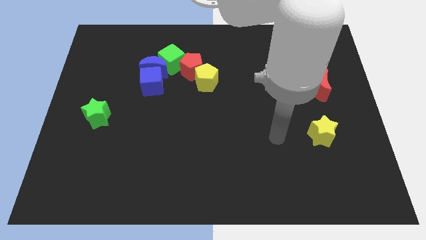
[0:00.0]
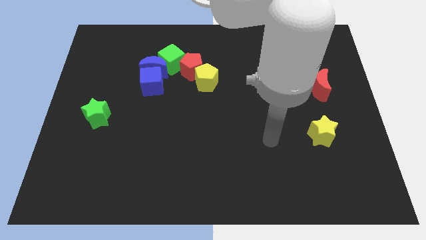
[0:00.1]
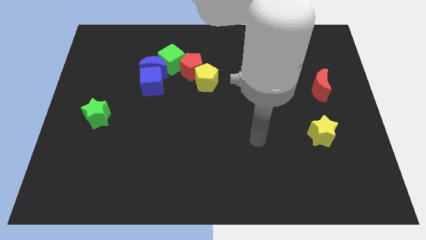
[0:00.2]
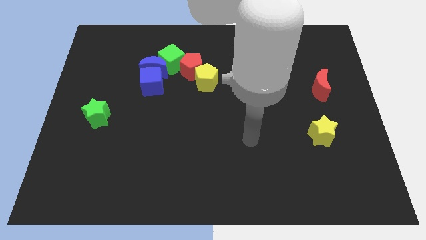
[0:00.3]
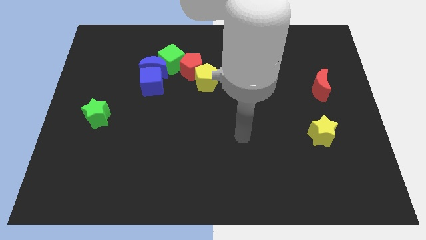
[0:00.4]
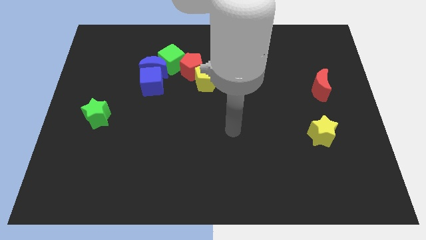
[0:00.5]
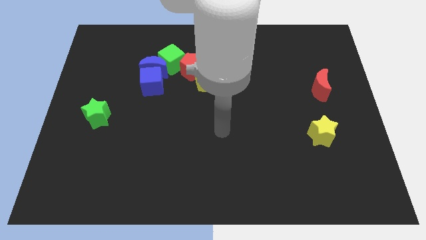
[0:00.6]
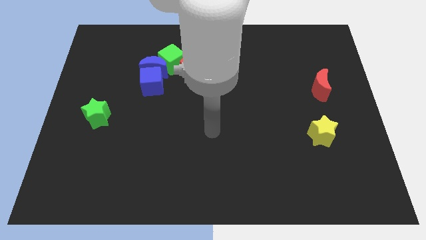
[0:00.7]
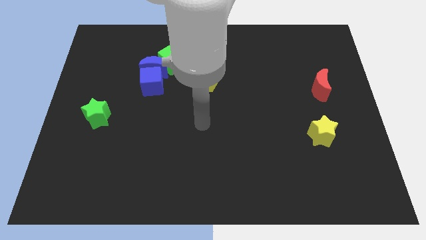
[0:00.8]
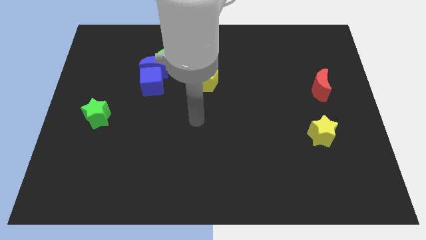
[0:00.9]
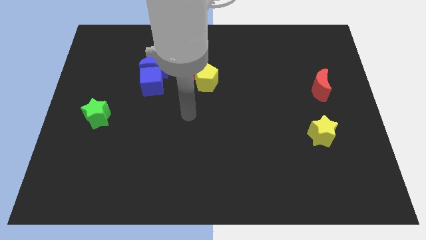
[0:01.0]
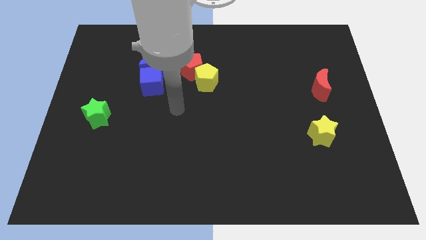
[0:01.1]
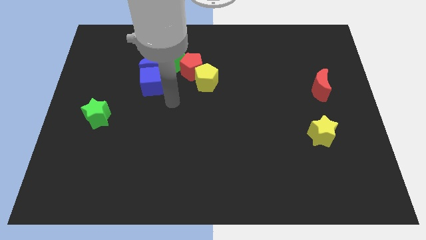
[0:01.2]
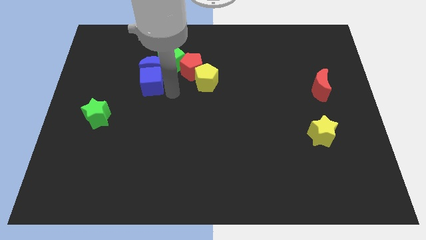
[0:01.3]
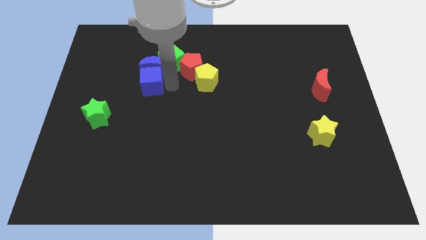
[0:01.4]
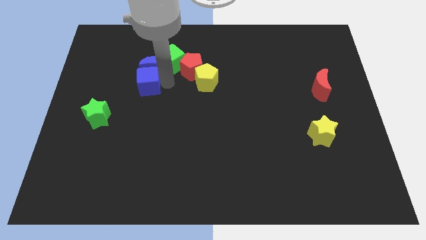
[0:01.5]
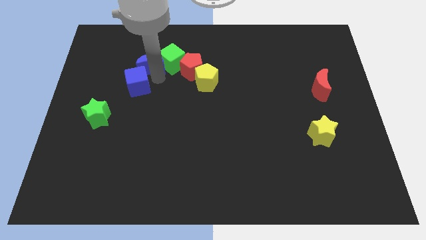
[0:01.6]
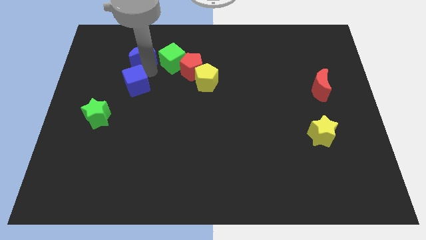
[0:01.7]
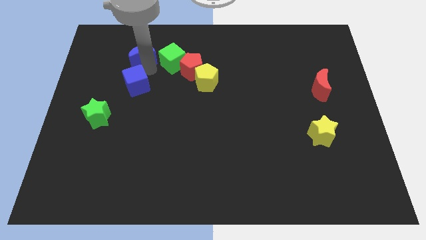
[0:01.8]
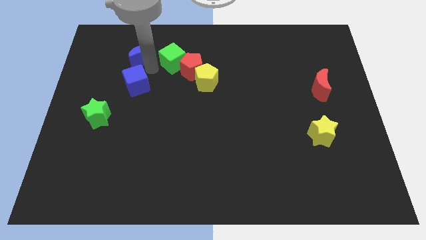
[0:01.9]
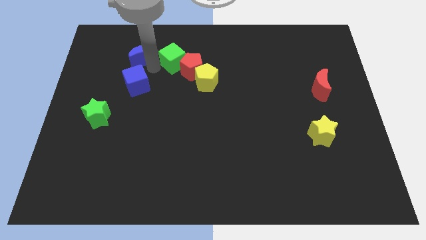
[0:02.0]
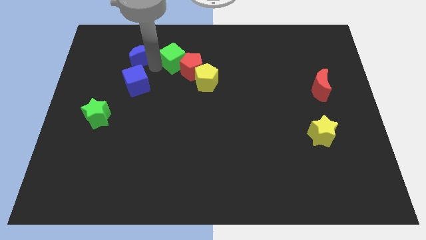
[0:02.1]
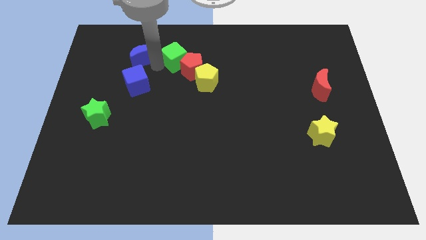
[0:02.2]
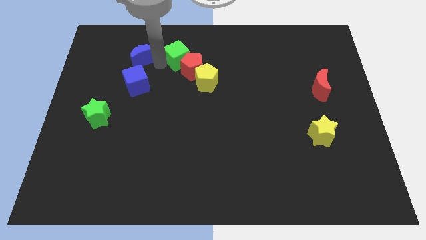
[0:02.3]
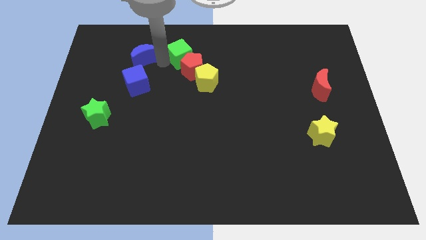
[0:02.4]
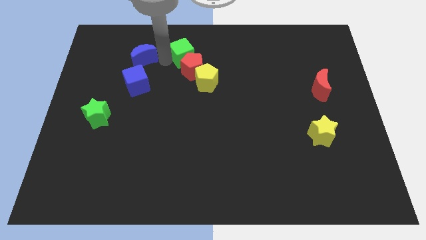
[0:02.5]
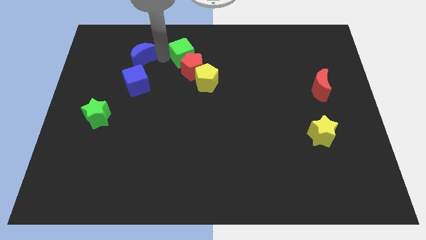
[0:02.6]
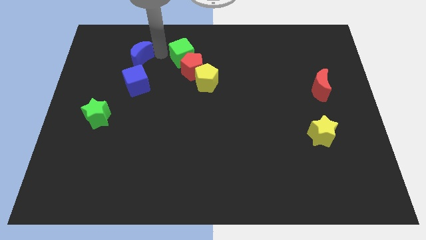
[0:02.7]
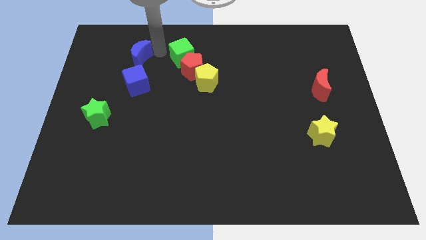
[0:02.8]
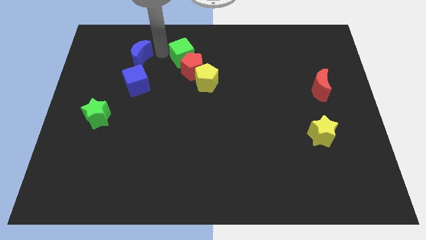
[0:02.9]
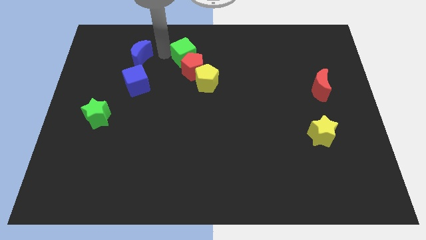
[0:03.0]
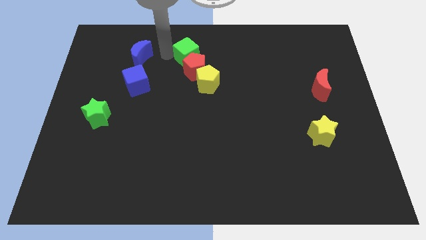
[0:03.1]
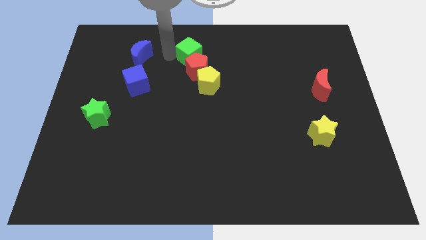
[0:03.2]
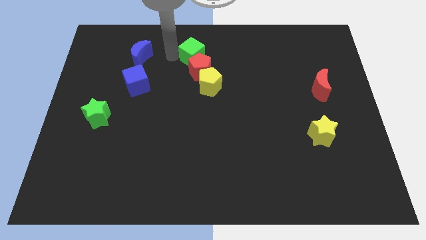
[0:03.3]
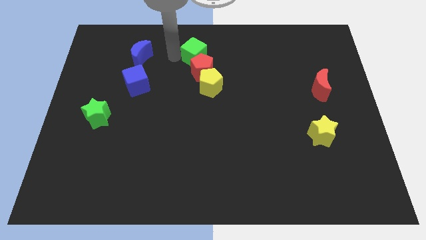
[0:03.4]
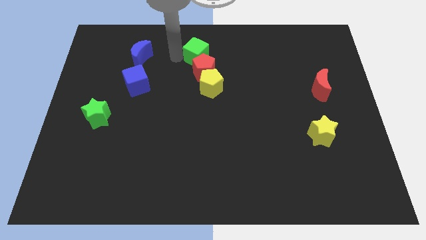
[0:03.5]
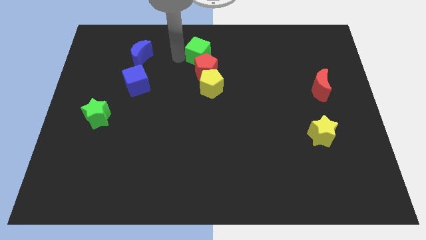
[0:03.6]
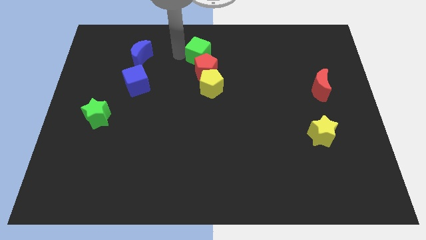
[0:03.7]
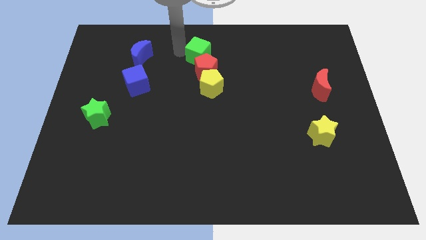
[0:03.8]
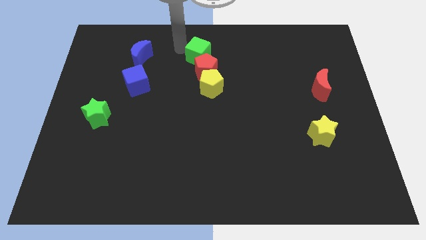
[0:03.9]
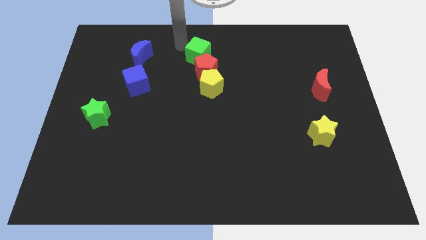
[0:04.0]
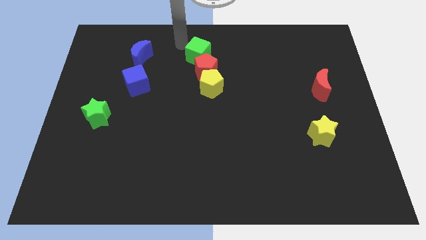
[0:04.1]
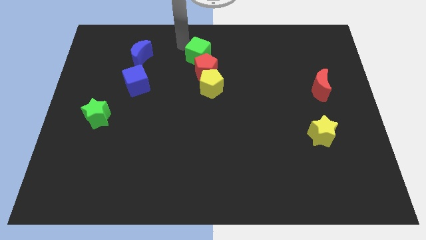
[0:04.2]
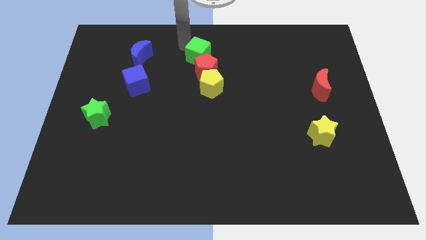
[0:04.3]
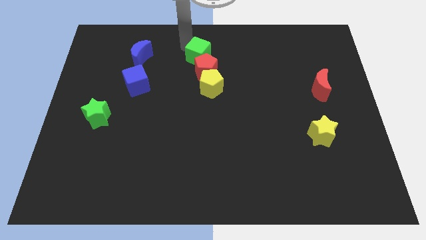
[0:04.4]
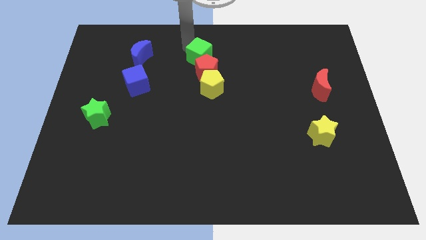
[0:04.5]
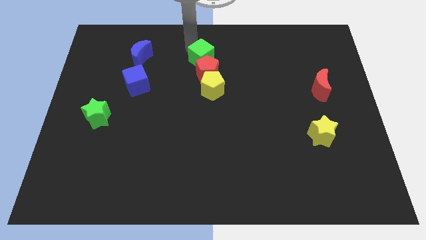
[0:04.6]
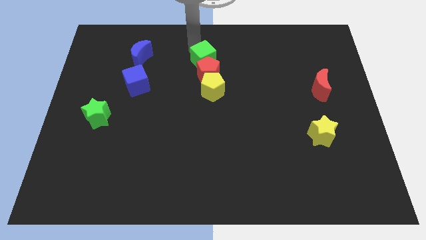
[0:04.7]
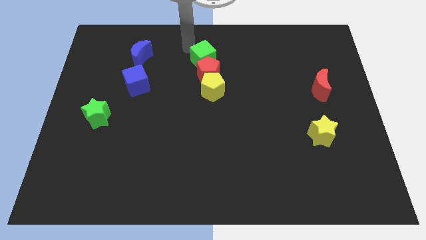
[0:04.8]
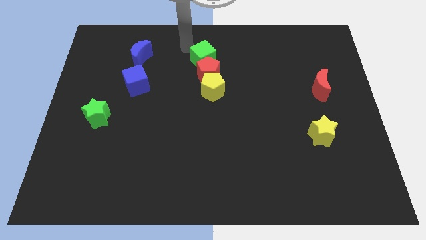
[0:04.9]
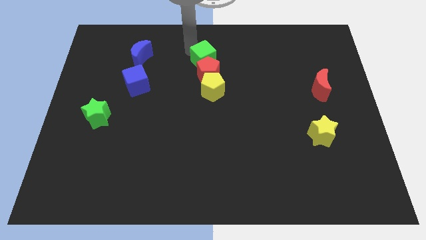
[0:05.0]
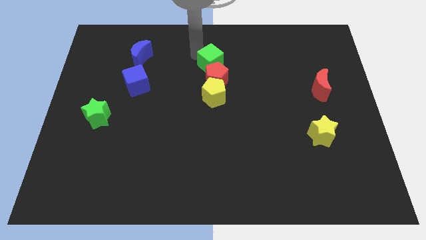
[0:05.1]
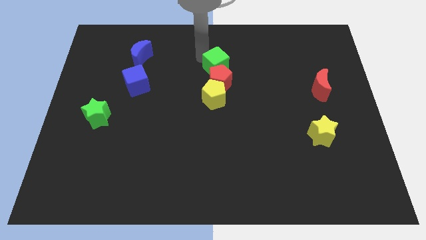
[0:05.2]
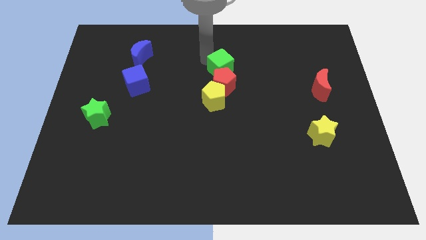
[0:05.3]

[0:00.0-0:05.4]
move the green cube diagonally down and to the right a bit

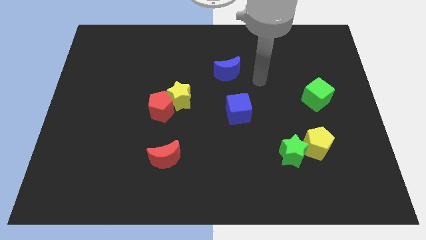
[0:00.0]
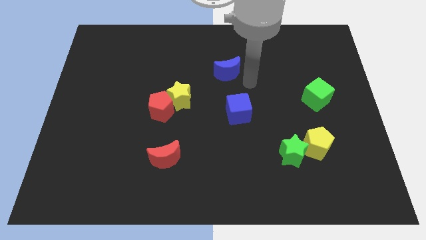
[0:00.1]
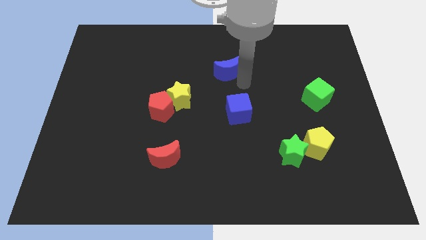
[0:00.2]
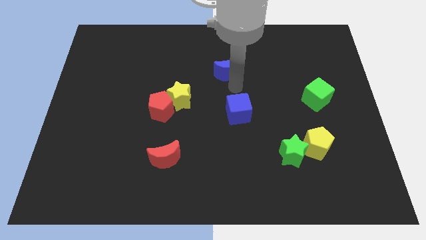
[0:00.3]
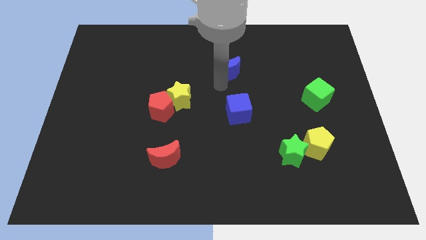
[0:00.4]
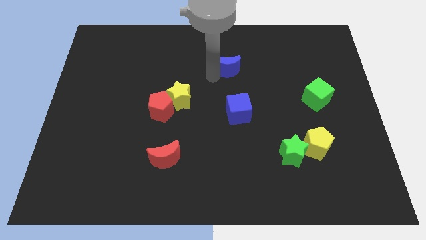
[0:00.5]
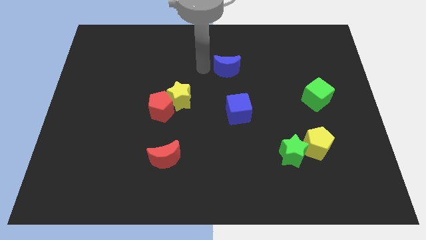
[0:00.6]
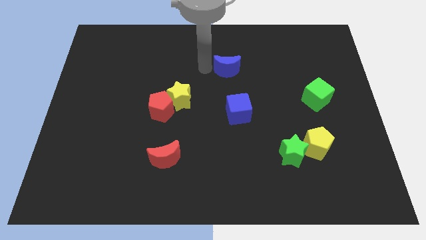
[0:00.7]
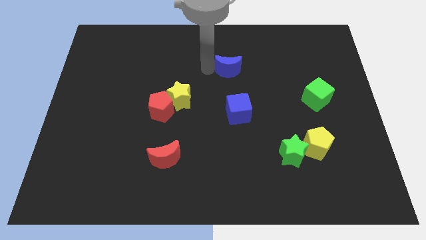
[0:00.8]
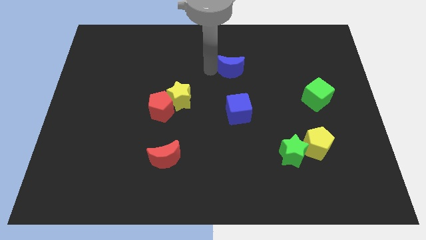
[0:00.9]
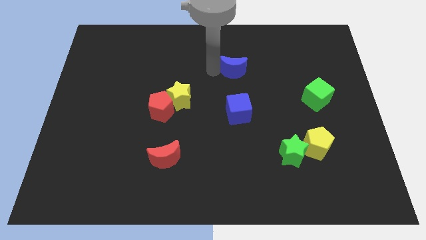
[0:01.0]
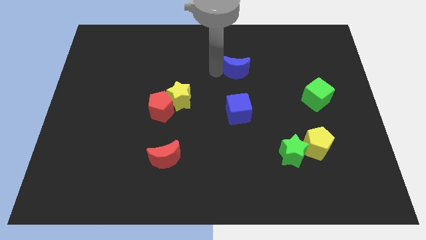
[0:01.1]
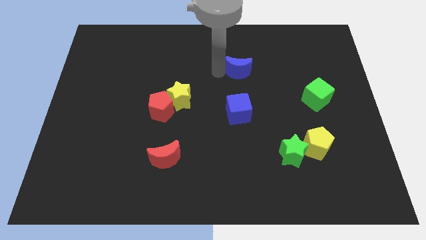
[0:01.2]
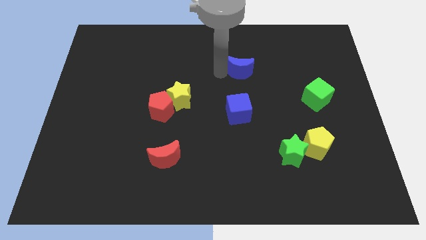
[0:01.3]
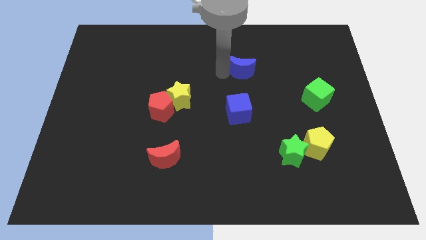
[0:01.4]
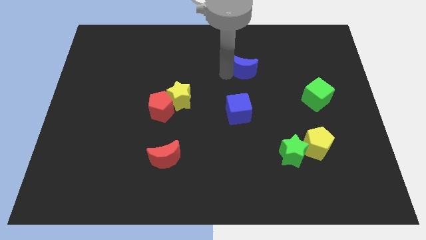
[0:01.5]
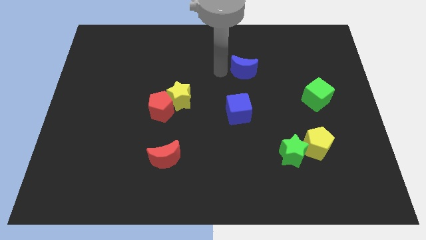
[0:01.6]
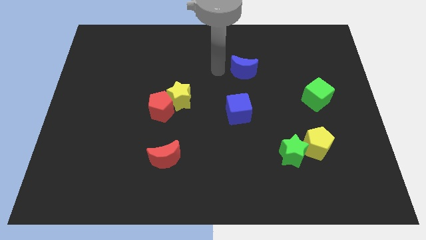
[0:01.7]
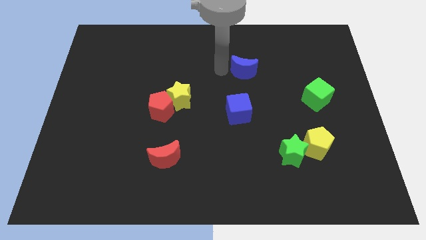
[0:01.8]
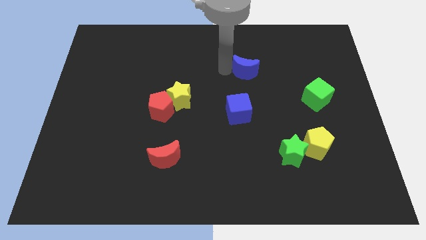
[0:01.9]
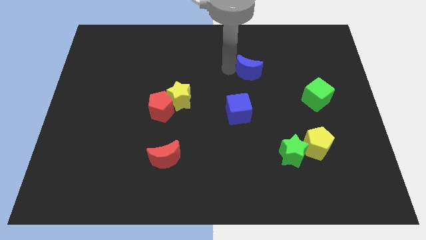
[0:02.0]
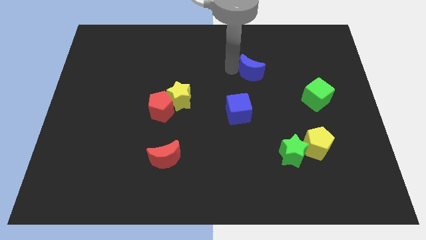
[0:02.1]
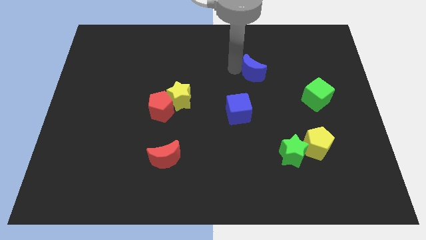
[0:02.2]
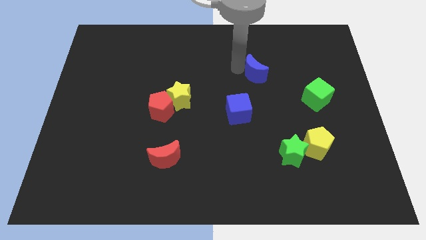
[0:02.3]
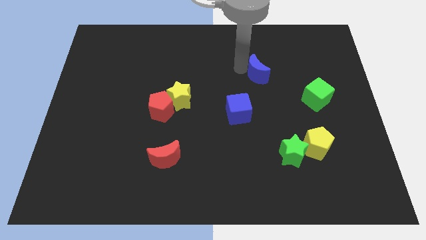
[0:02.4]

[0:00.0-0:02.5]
slightly slide the blue moon right

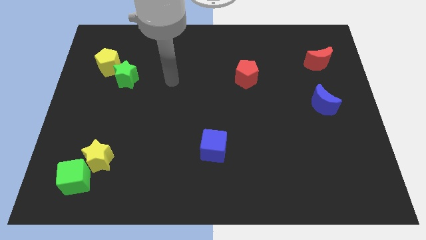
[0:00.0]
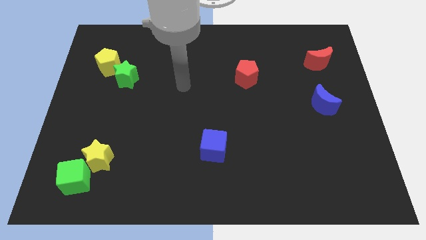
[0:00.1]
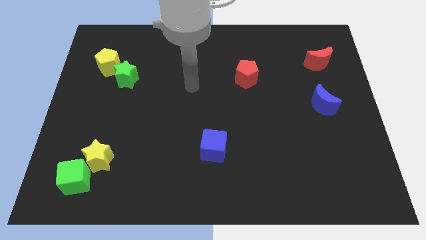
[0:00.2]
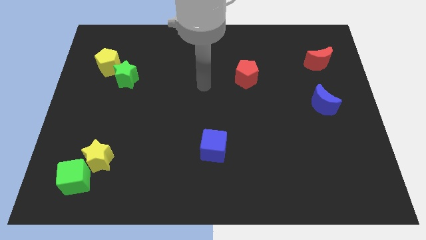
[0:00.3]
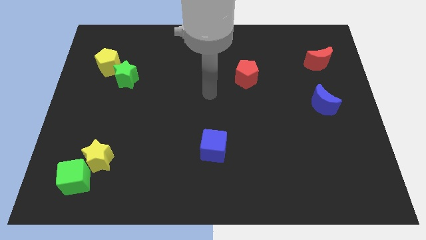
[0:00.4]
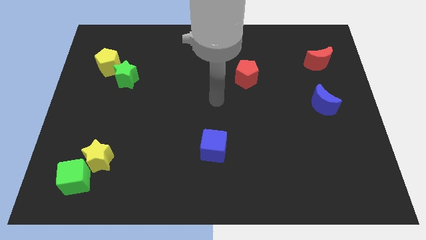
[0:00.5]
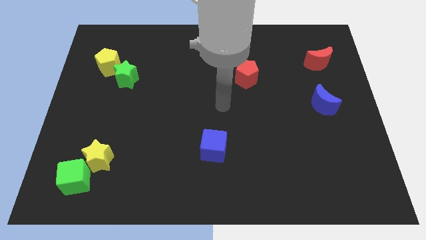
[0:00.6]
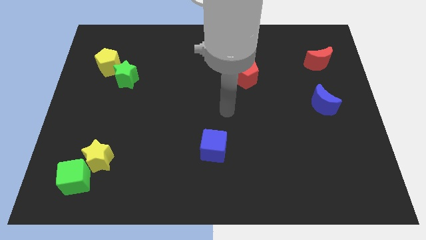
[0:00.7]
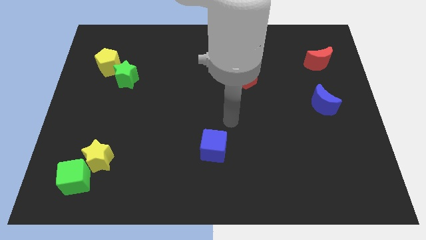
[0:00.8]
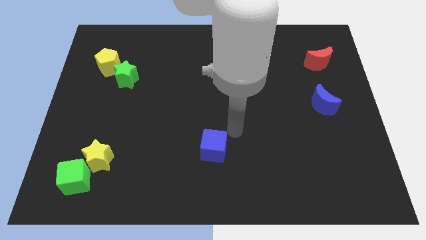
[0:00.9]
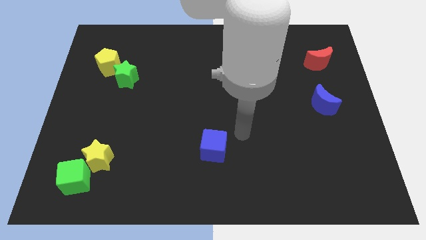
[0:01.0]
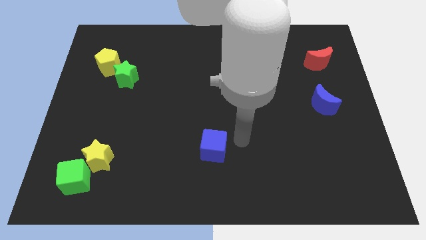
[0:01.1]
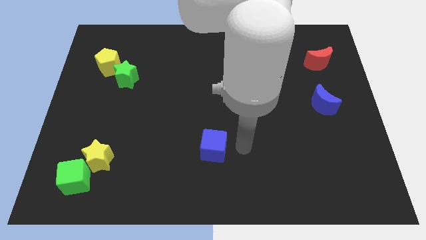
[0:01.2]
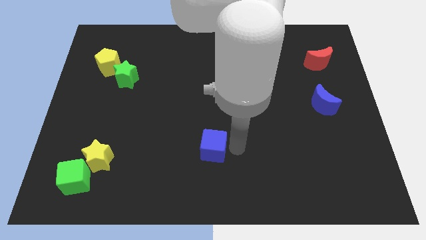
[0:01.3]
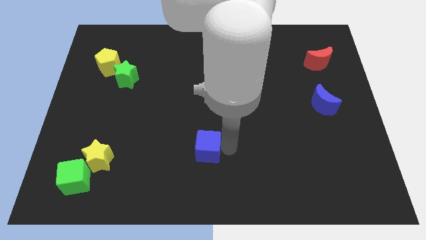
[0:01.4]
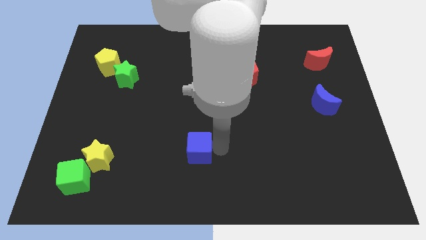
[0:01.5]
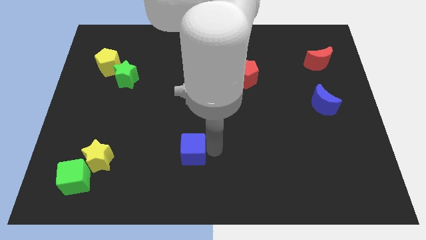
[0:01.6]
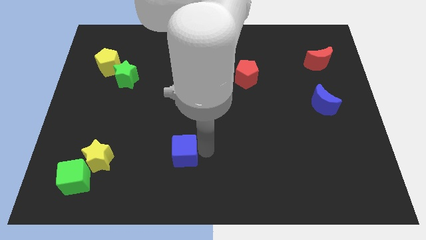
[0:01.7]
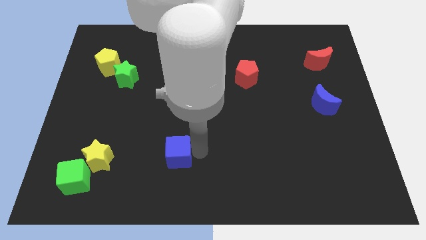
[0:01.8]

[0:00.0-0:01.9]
slightly push the blue cube left
